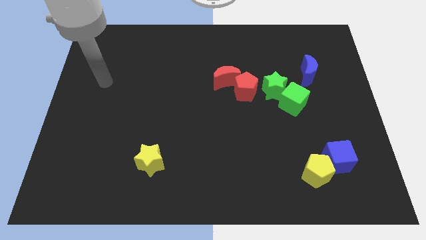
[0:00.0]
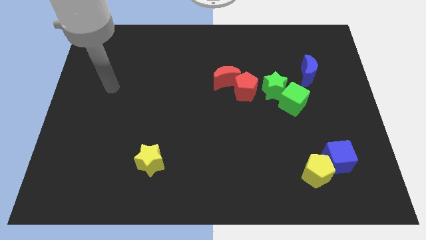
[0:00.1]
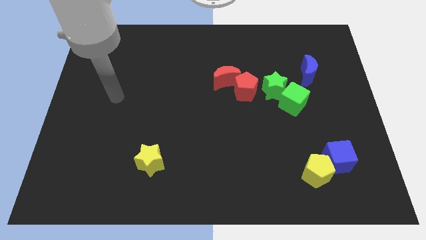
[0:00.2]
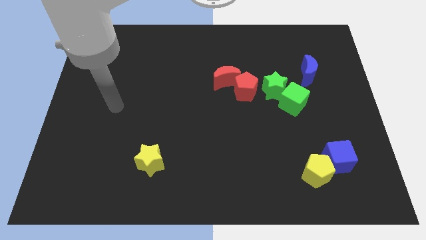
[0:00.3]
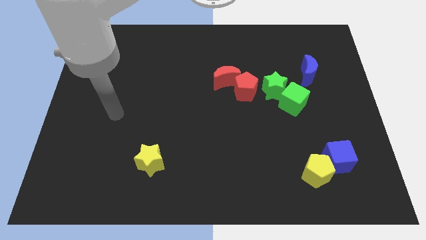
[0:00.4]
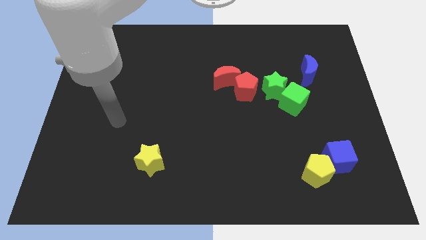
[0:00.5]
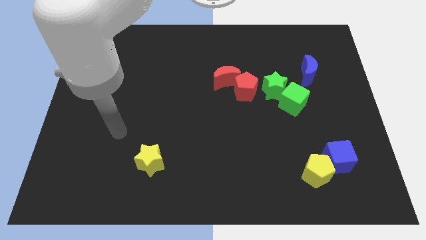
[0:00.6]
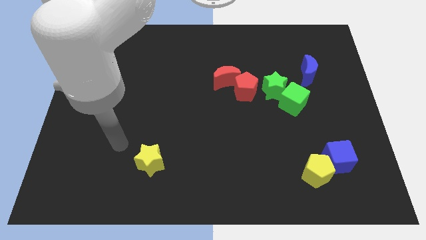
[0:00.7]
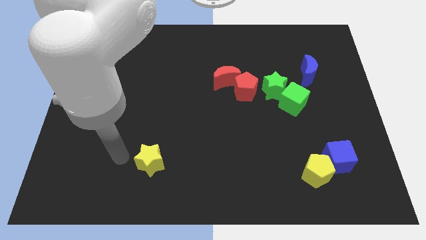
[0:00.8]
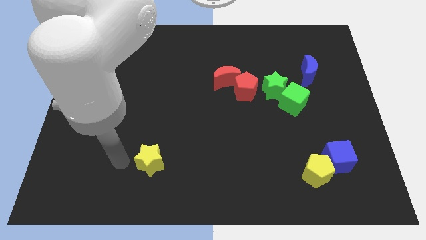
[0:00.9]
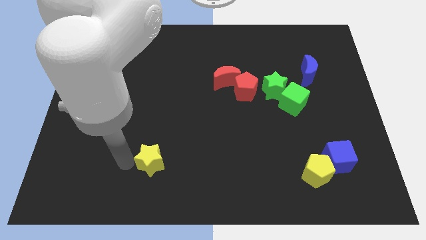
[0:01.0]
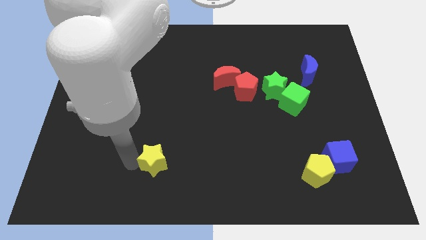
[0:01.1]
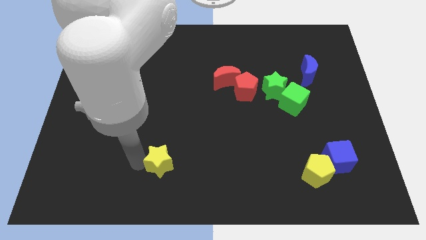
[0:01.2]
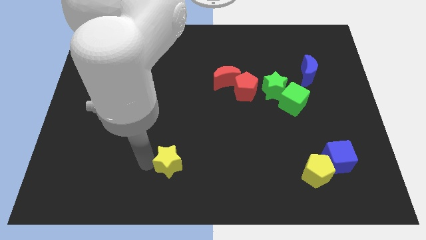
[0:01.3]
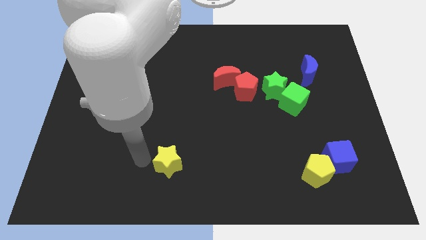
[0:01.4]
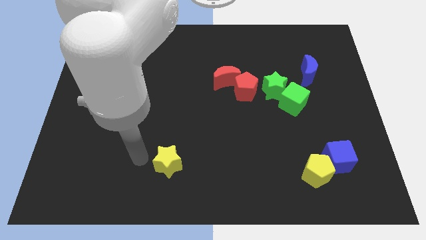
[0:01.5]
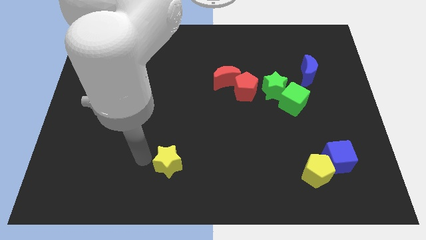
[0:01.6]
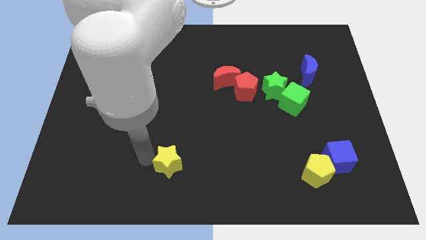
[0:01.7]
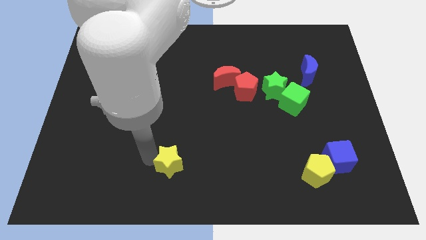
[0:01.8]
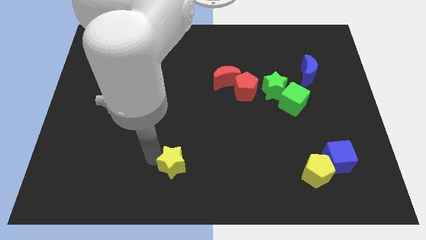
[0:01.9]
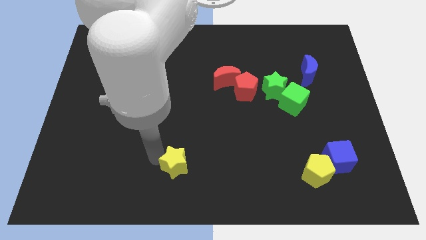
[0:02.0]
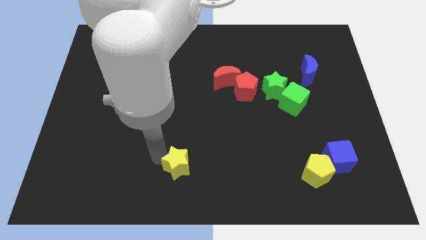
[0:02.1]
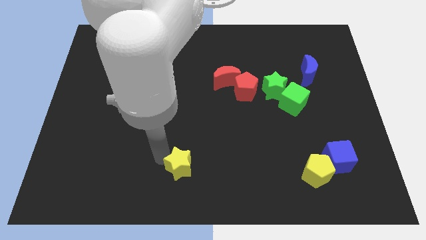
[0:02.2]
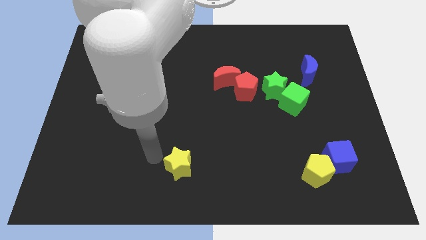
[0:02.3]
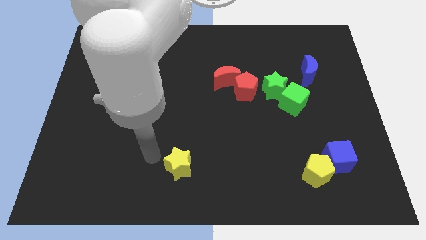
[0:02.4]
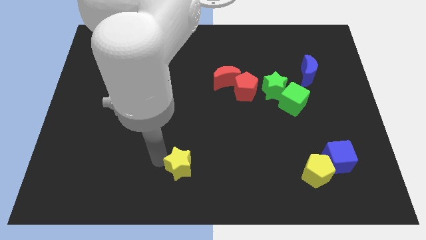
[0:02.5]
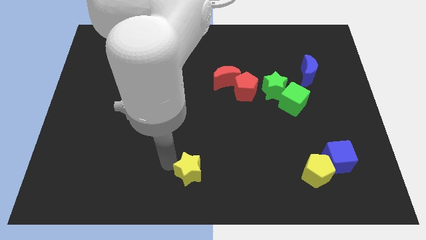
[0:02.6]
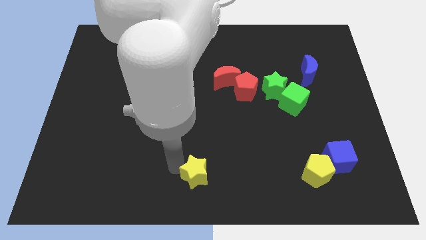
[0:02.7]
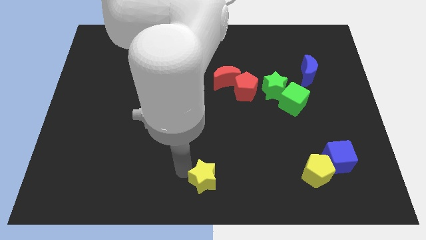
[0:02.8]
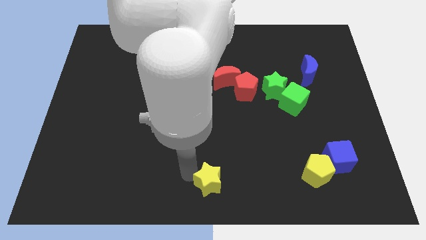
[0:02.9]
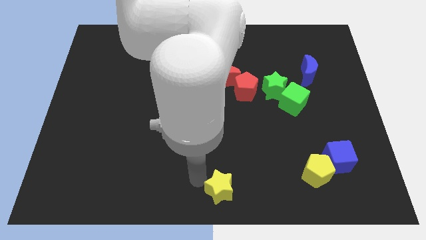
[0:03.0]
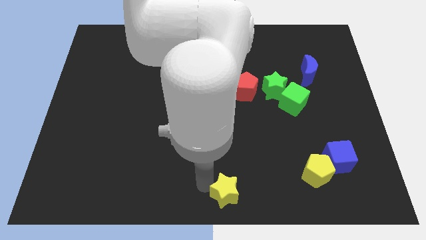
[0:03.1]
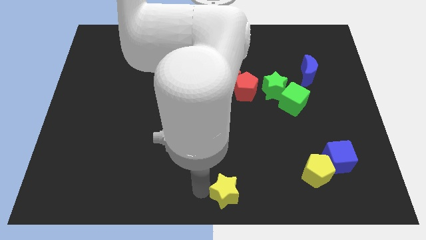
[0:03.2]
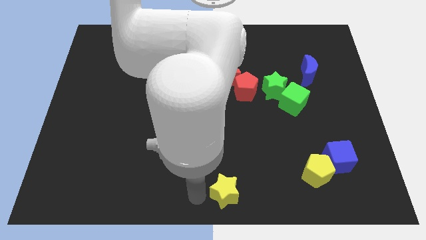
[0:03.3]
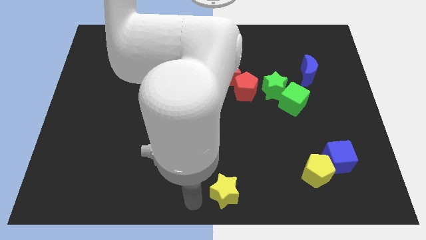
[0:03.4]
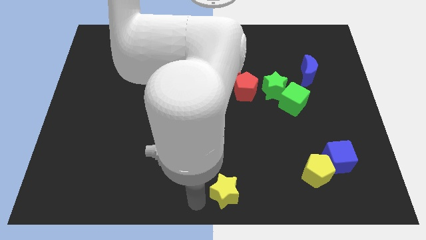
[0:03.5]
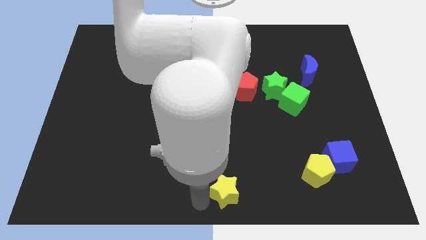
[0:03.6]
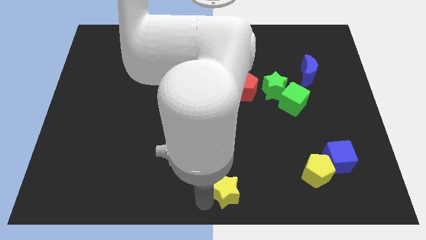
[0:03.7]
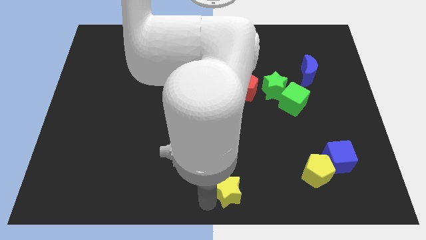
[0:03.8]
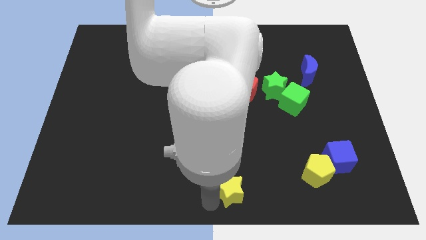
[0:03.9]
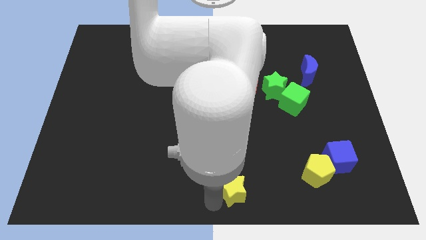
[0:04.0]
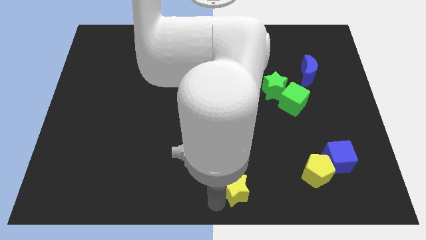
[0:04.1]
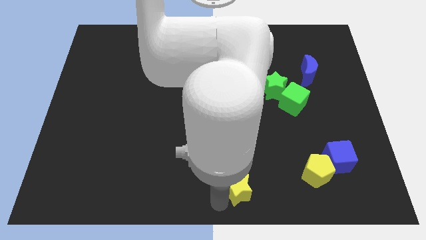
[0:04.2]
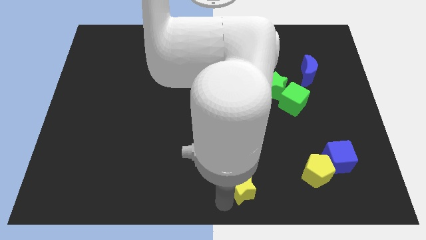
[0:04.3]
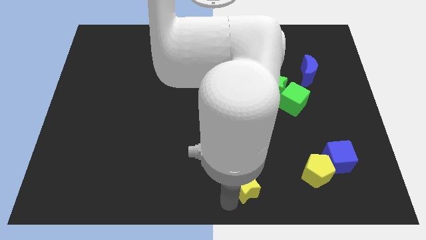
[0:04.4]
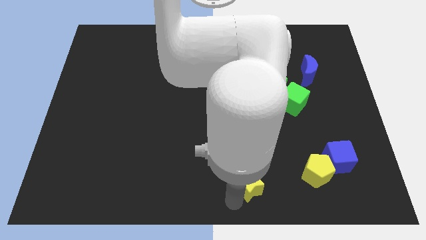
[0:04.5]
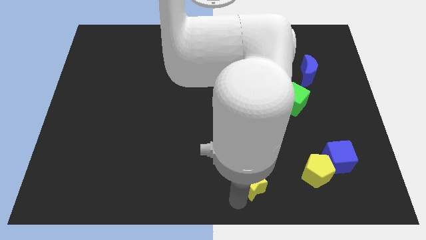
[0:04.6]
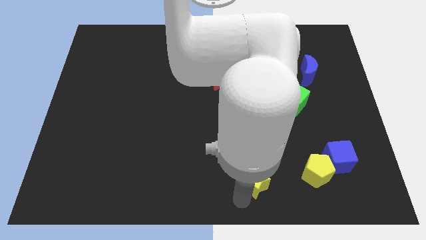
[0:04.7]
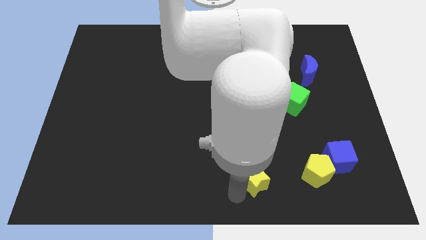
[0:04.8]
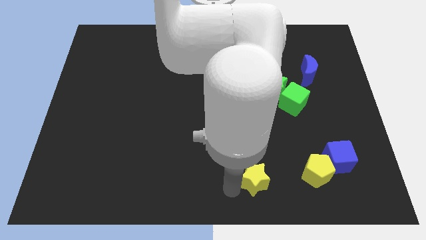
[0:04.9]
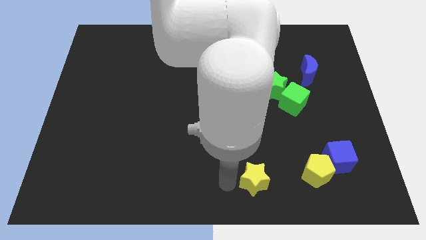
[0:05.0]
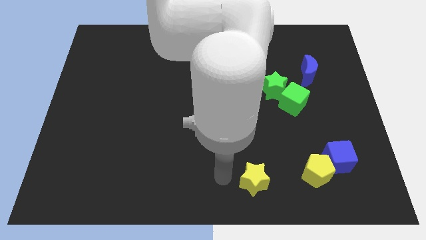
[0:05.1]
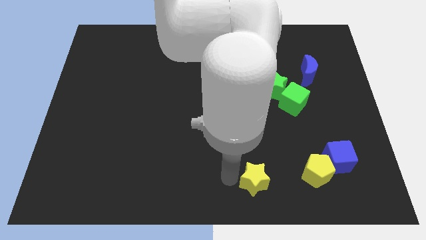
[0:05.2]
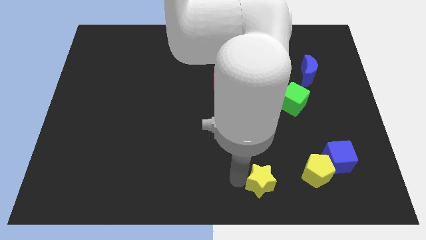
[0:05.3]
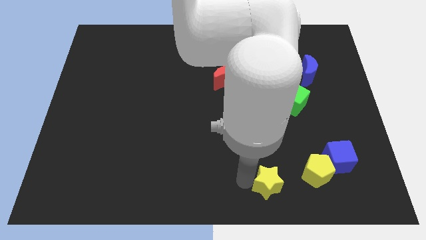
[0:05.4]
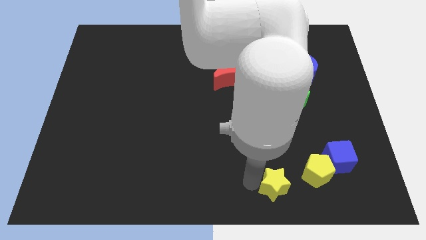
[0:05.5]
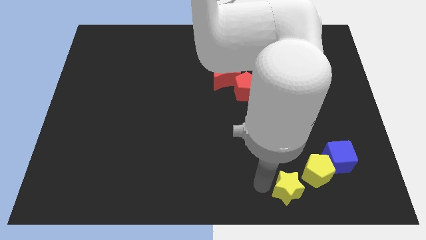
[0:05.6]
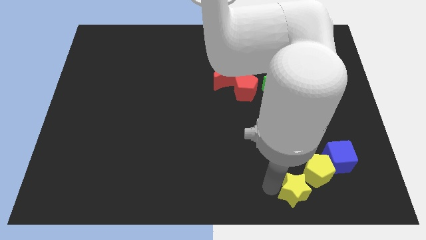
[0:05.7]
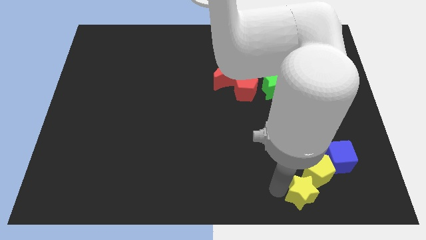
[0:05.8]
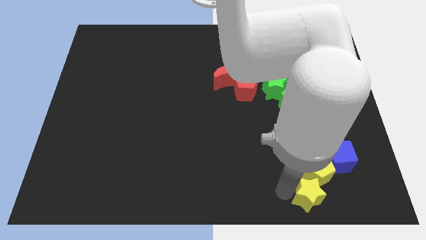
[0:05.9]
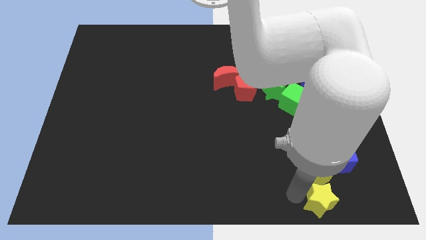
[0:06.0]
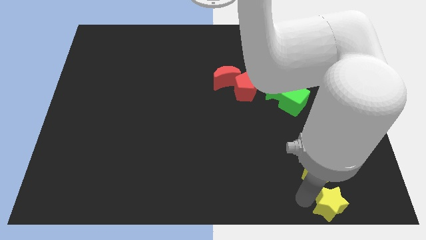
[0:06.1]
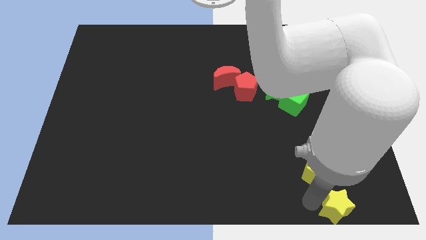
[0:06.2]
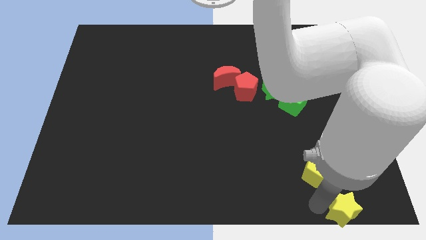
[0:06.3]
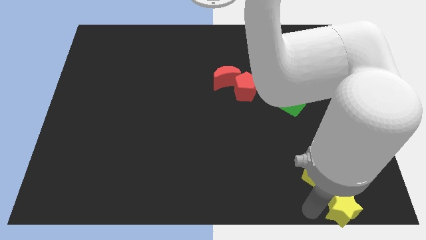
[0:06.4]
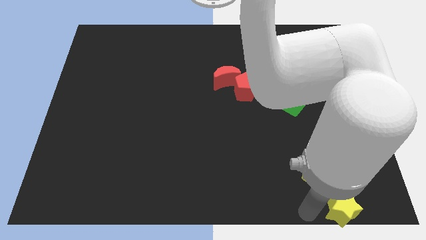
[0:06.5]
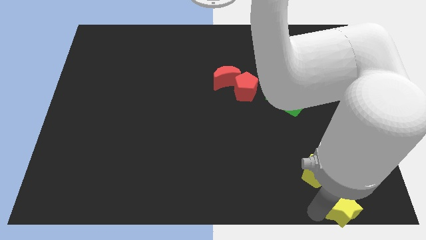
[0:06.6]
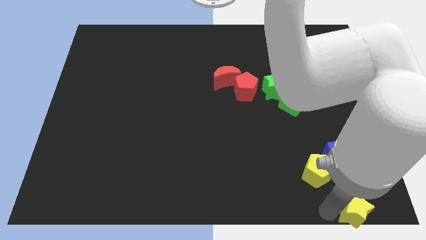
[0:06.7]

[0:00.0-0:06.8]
slide the yellow star to the bottom right

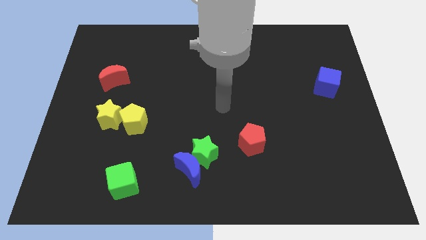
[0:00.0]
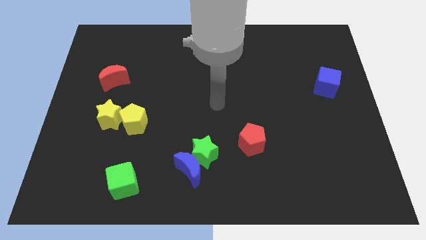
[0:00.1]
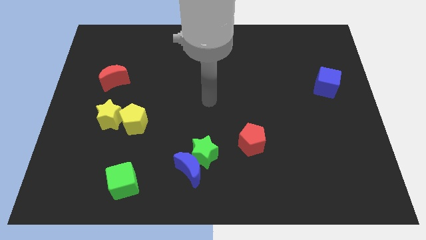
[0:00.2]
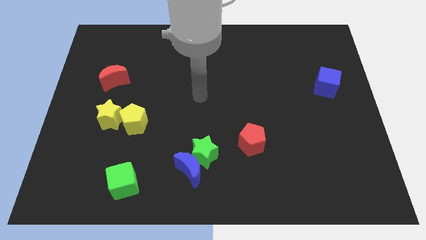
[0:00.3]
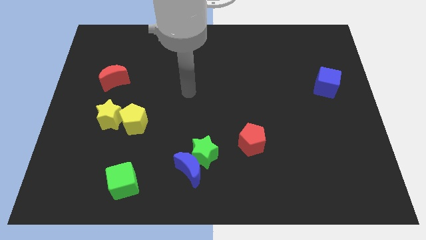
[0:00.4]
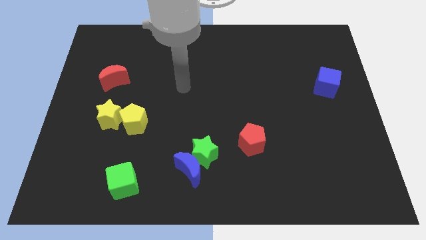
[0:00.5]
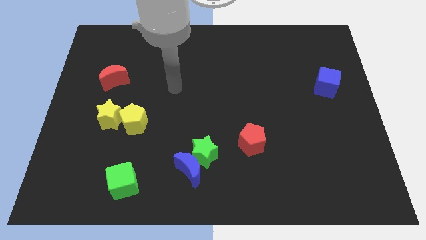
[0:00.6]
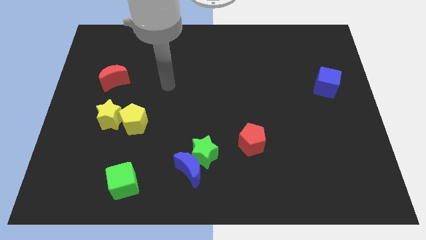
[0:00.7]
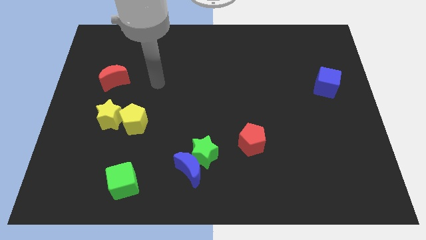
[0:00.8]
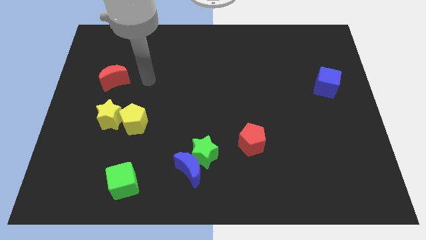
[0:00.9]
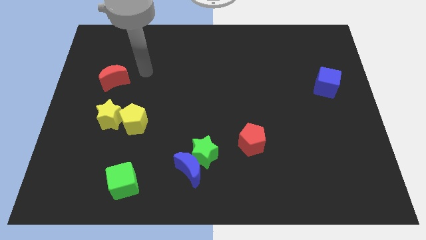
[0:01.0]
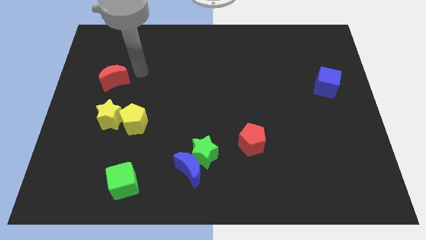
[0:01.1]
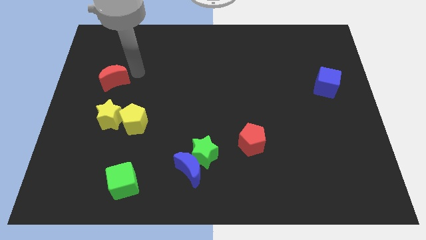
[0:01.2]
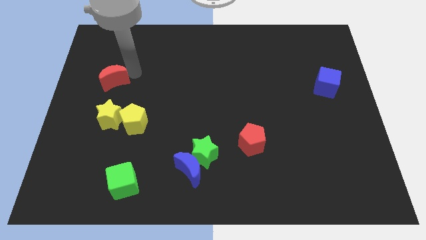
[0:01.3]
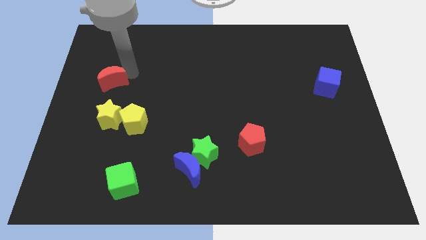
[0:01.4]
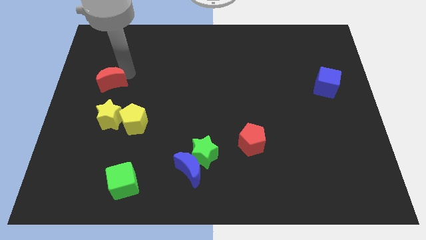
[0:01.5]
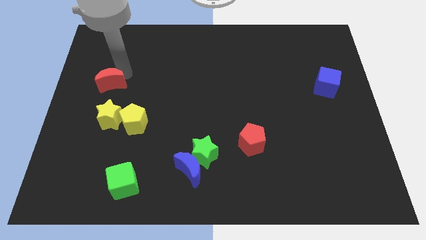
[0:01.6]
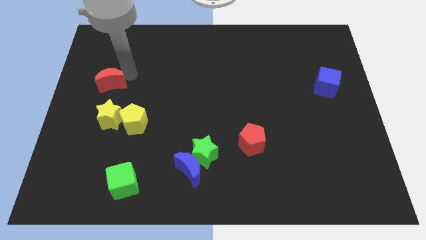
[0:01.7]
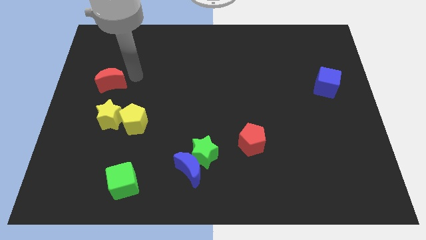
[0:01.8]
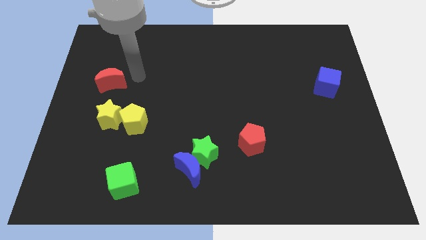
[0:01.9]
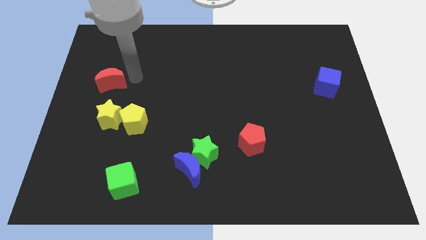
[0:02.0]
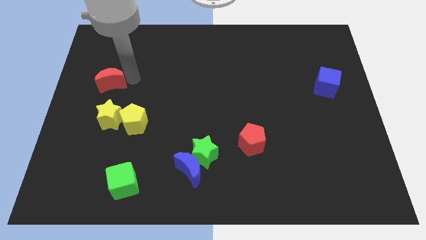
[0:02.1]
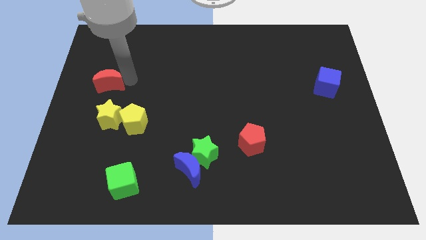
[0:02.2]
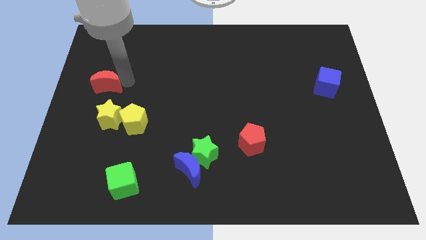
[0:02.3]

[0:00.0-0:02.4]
put the red moon to the left side of the board
